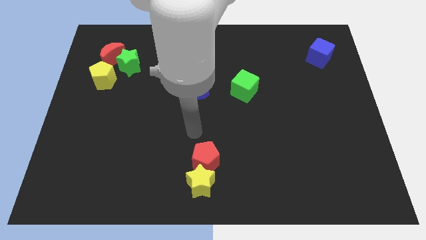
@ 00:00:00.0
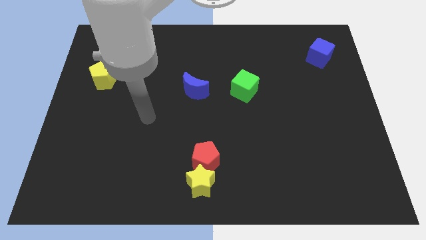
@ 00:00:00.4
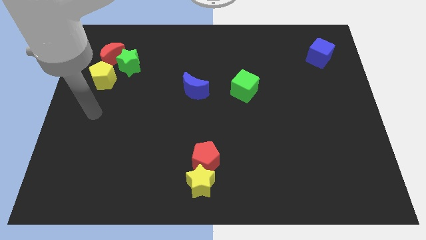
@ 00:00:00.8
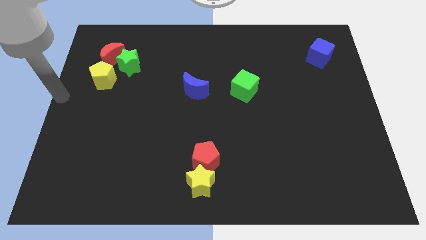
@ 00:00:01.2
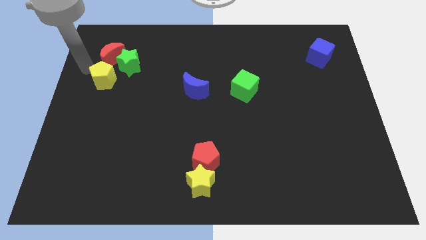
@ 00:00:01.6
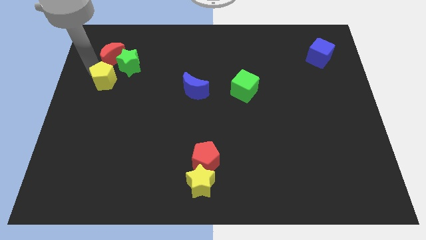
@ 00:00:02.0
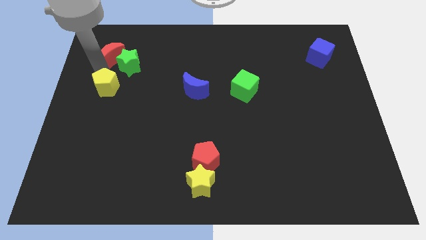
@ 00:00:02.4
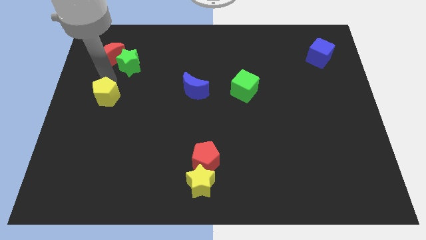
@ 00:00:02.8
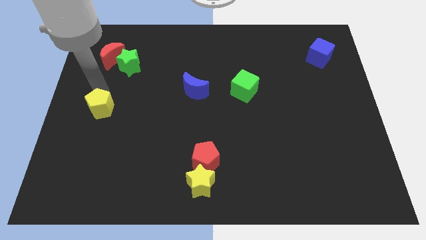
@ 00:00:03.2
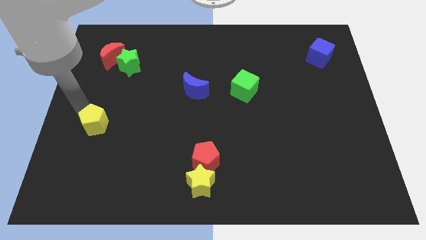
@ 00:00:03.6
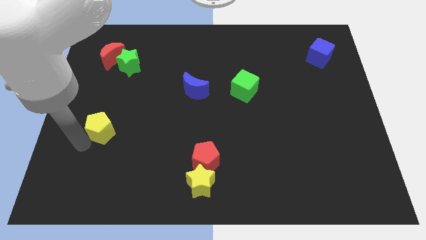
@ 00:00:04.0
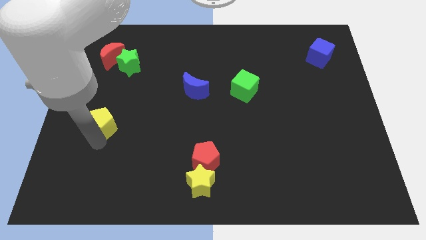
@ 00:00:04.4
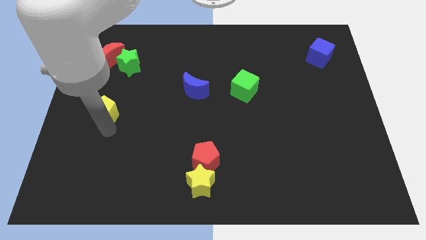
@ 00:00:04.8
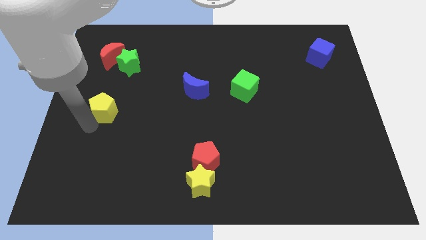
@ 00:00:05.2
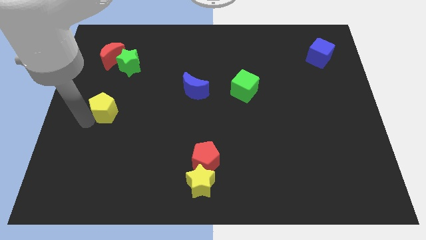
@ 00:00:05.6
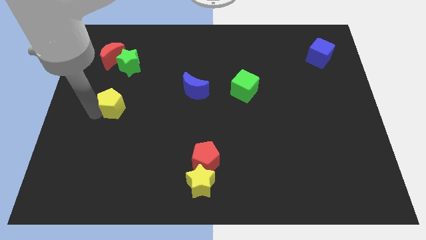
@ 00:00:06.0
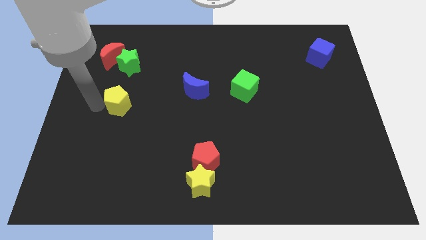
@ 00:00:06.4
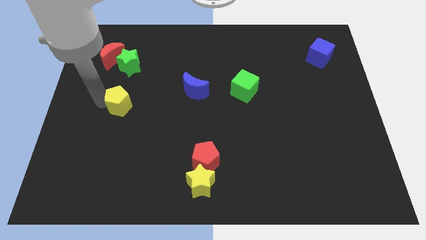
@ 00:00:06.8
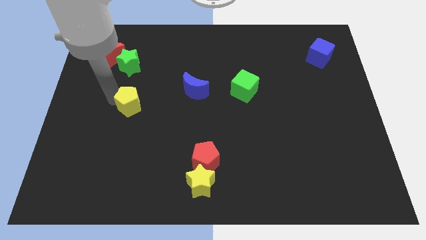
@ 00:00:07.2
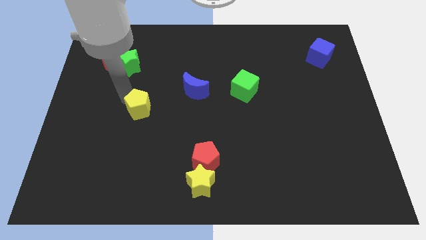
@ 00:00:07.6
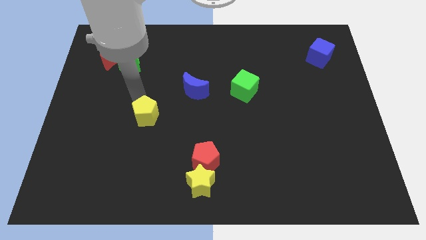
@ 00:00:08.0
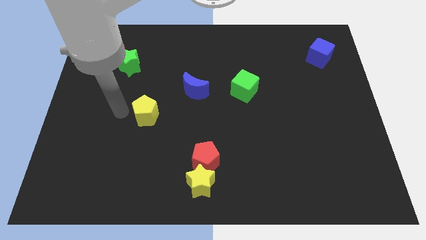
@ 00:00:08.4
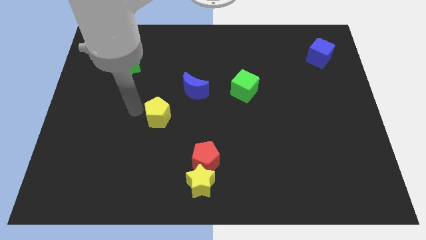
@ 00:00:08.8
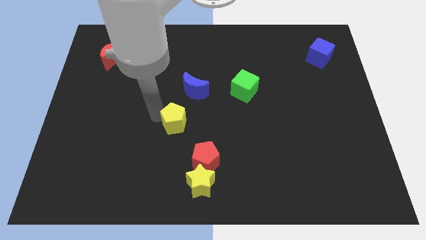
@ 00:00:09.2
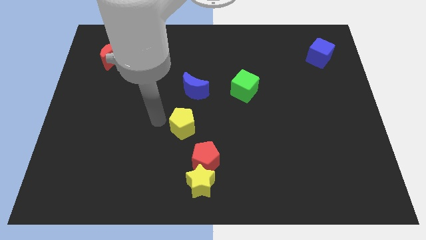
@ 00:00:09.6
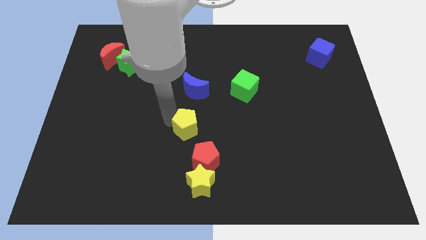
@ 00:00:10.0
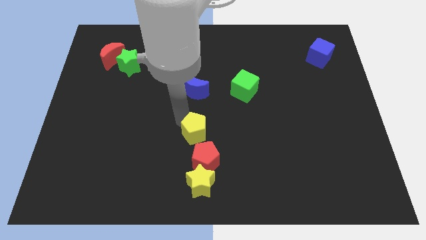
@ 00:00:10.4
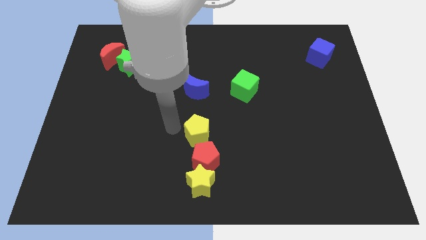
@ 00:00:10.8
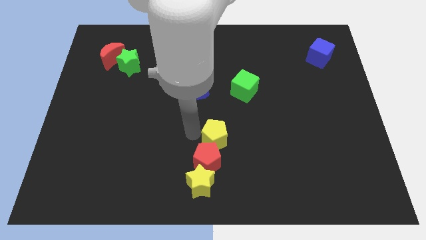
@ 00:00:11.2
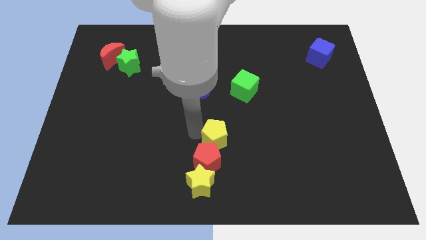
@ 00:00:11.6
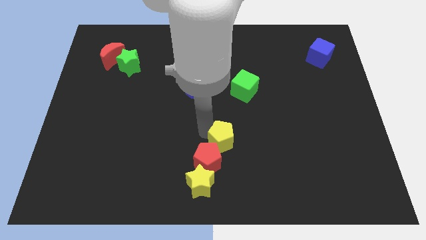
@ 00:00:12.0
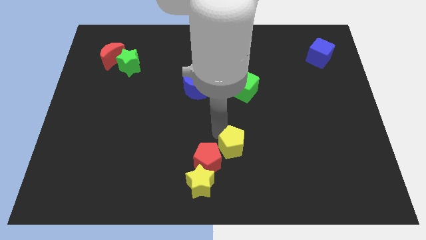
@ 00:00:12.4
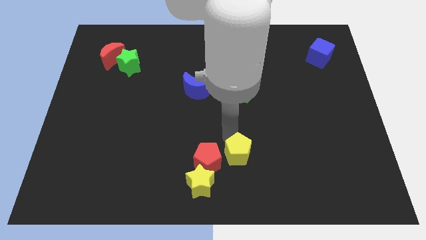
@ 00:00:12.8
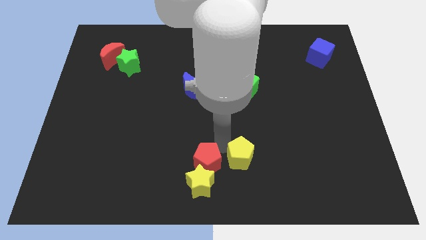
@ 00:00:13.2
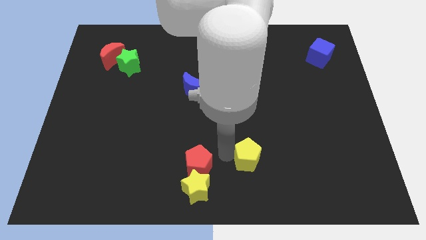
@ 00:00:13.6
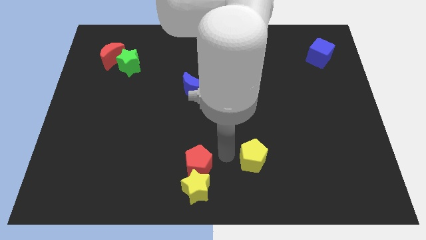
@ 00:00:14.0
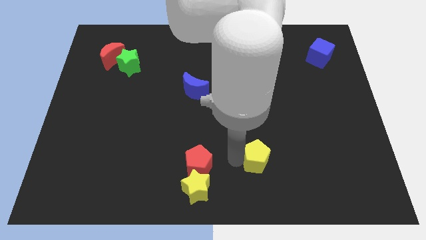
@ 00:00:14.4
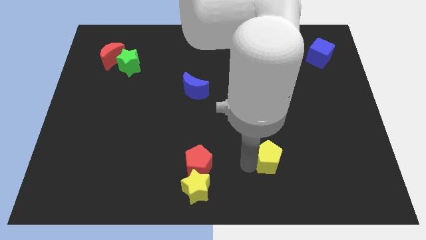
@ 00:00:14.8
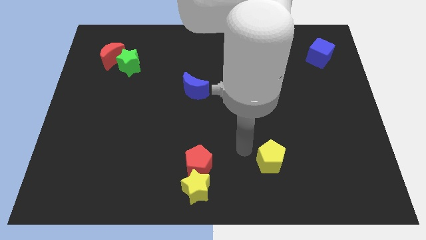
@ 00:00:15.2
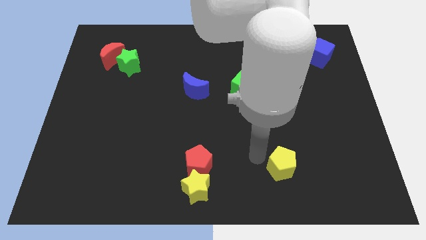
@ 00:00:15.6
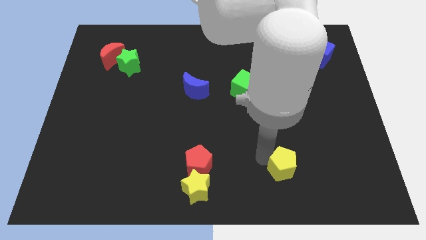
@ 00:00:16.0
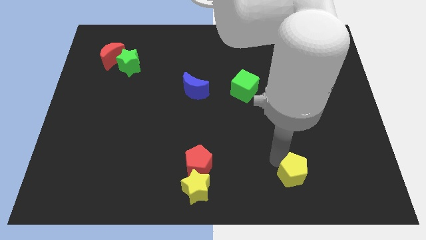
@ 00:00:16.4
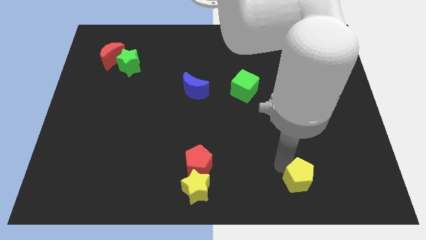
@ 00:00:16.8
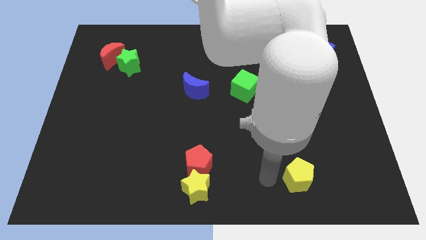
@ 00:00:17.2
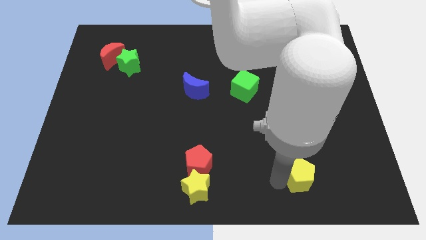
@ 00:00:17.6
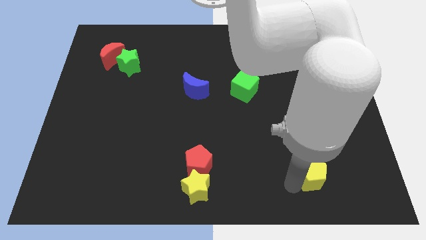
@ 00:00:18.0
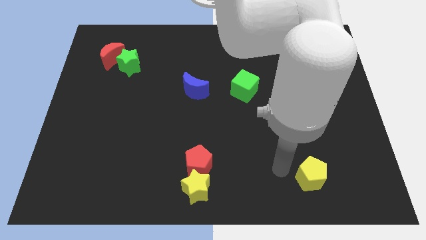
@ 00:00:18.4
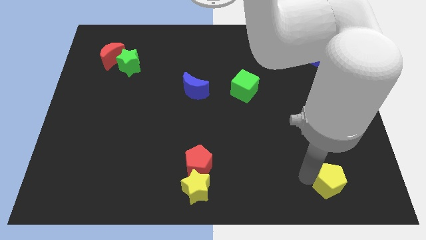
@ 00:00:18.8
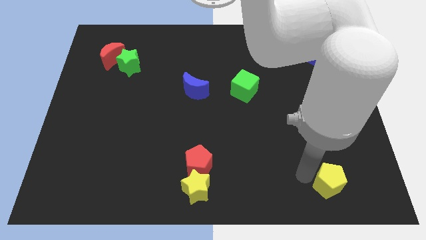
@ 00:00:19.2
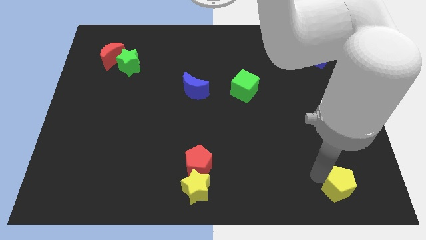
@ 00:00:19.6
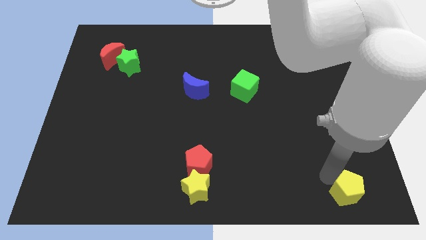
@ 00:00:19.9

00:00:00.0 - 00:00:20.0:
push the yellow pentagon to the bottom right

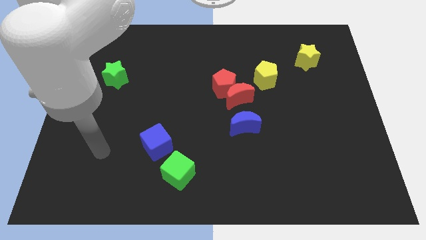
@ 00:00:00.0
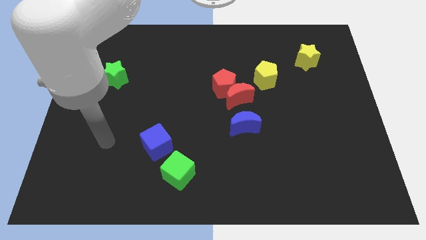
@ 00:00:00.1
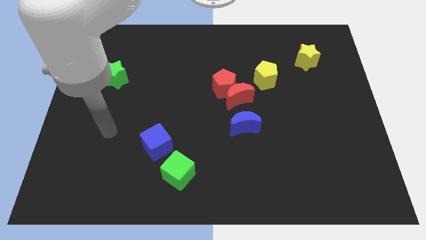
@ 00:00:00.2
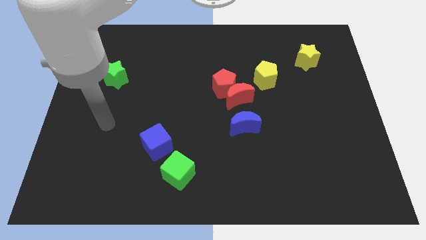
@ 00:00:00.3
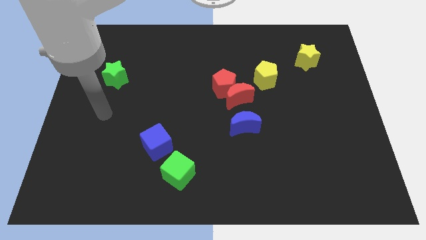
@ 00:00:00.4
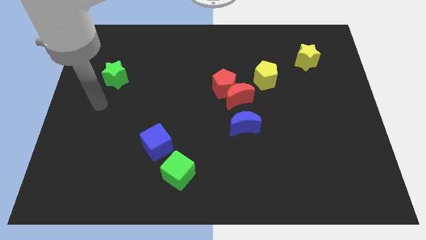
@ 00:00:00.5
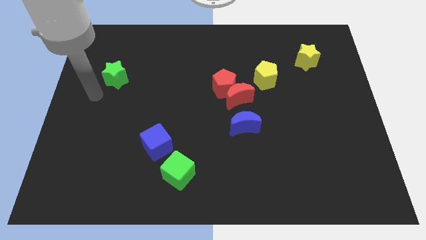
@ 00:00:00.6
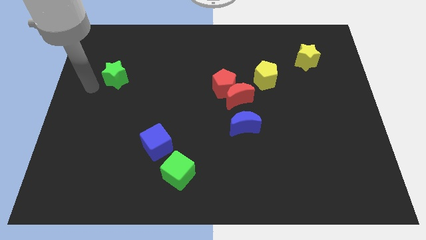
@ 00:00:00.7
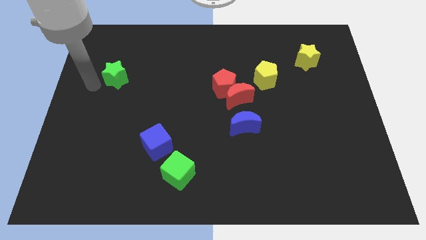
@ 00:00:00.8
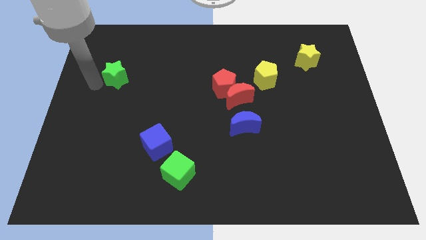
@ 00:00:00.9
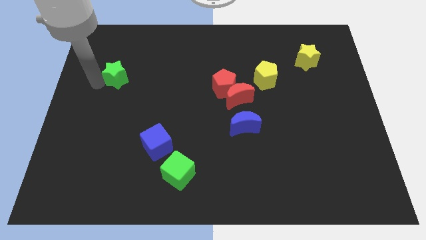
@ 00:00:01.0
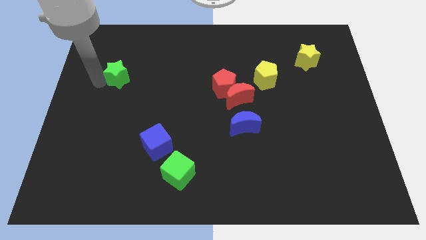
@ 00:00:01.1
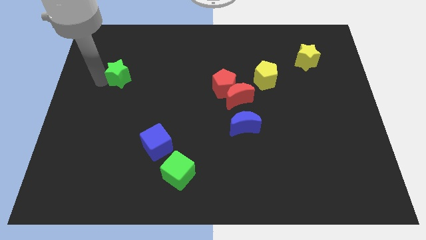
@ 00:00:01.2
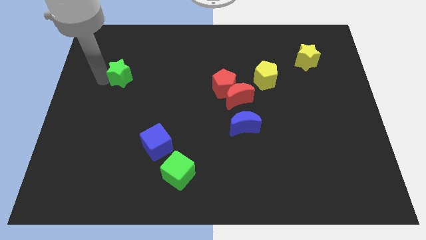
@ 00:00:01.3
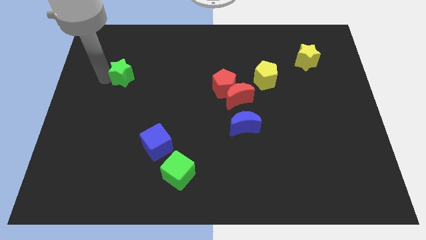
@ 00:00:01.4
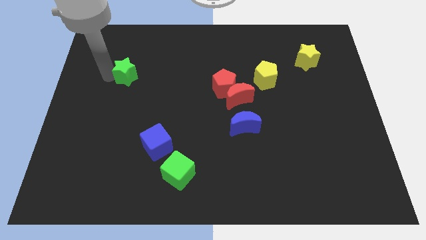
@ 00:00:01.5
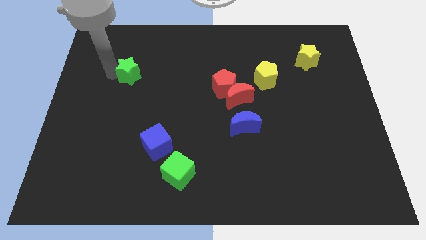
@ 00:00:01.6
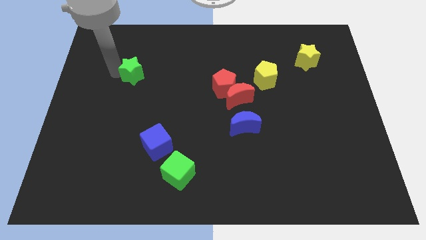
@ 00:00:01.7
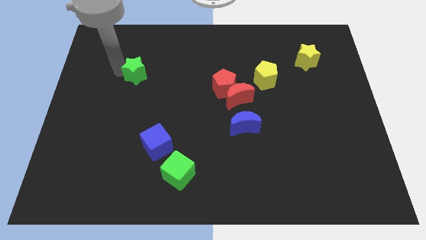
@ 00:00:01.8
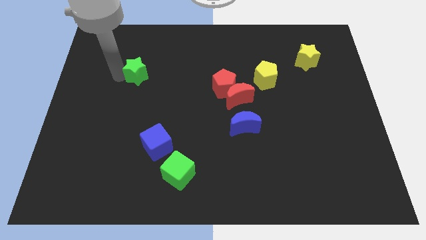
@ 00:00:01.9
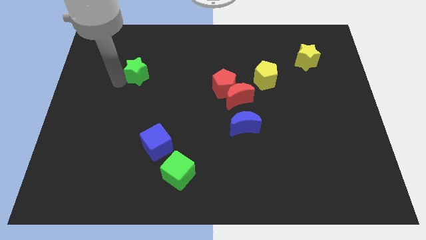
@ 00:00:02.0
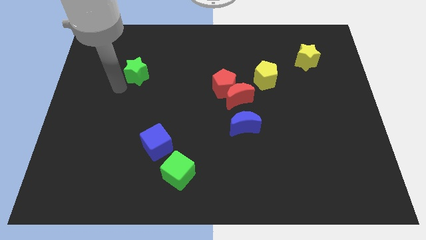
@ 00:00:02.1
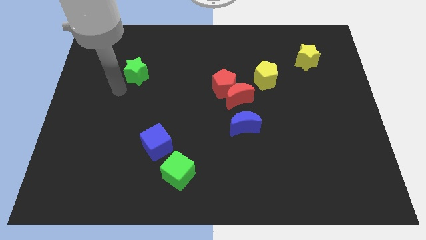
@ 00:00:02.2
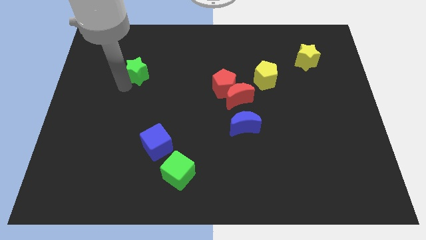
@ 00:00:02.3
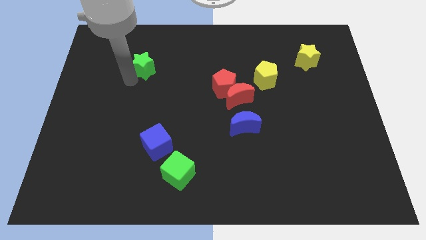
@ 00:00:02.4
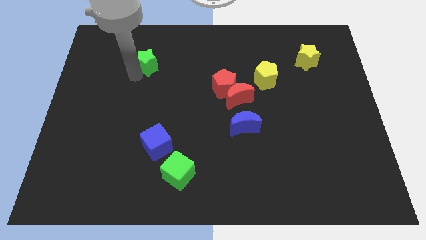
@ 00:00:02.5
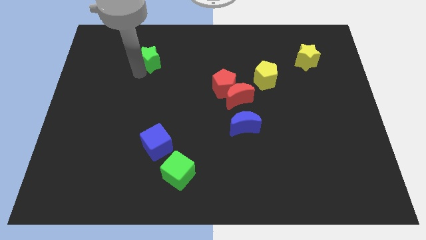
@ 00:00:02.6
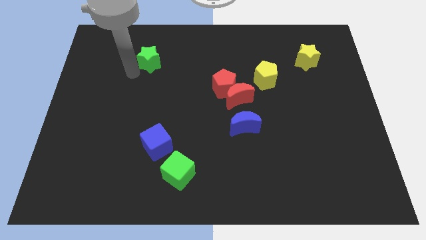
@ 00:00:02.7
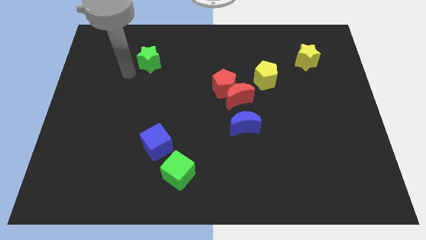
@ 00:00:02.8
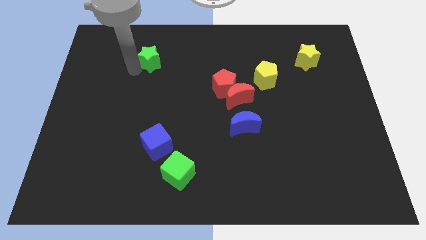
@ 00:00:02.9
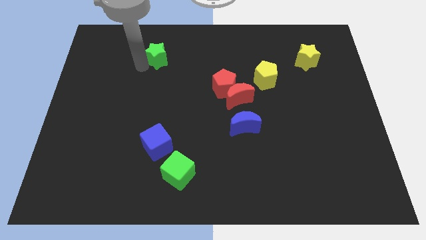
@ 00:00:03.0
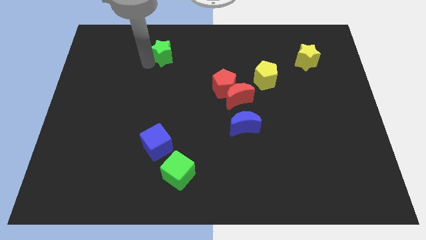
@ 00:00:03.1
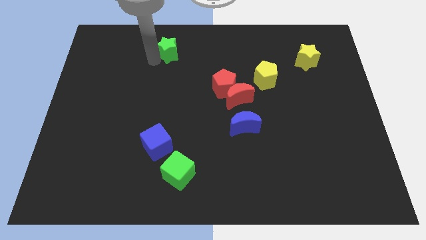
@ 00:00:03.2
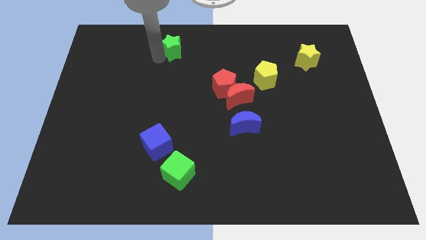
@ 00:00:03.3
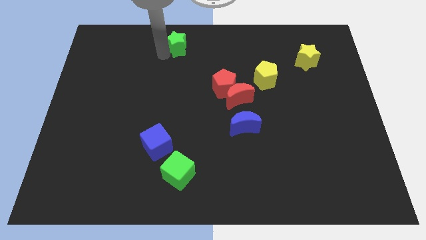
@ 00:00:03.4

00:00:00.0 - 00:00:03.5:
put the green star to the top side
